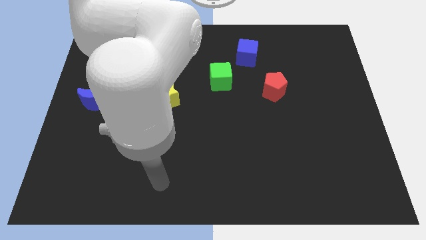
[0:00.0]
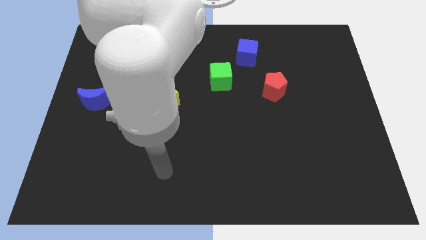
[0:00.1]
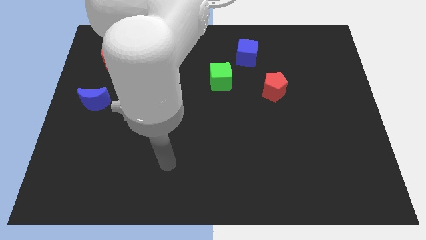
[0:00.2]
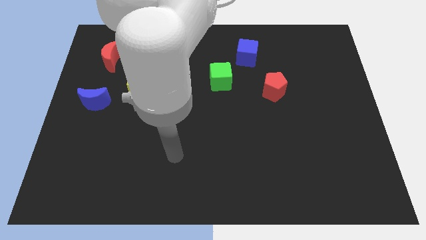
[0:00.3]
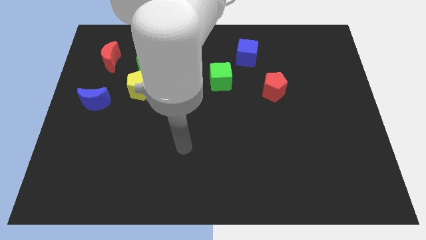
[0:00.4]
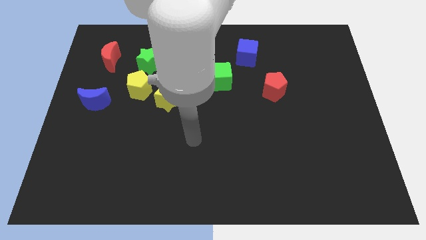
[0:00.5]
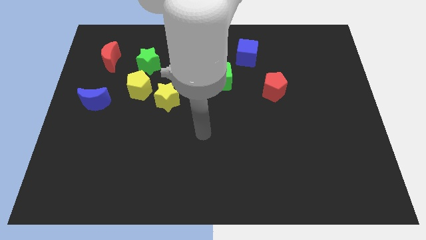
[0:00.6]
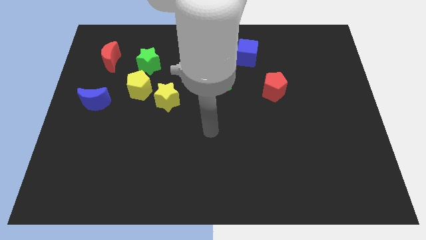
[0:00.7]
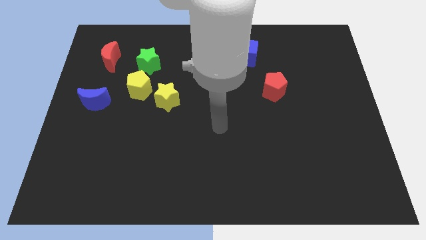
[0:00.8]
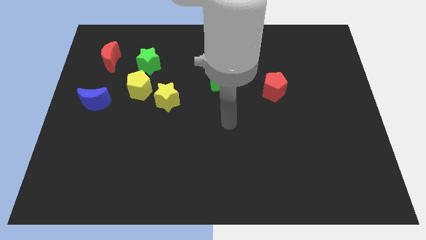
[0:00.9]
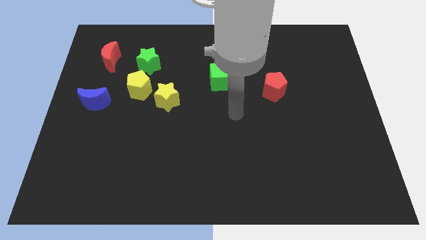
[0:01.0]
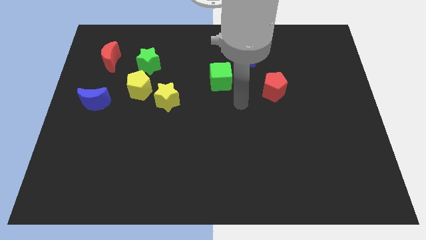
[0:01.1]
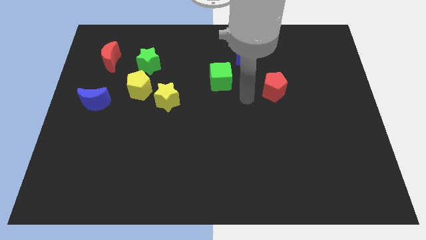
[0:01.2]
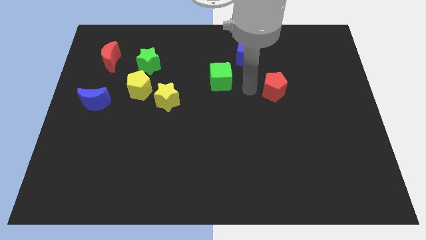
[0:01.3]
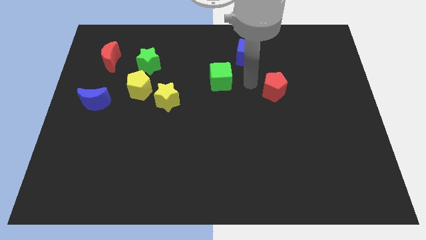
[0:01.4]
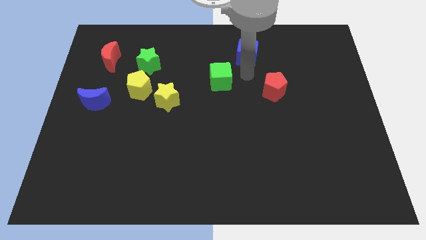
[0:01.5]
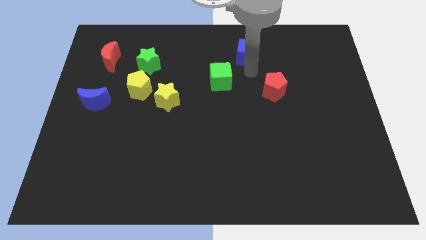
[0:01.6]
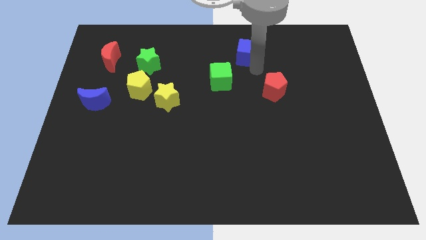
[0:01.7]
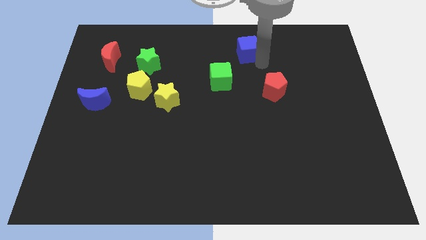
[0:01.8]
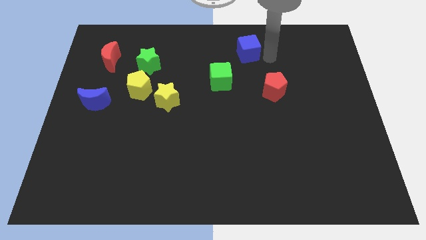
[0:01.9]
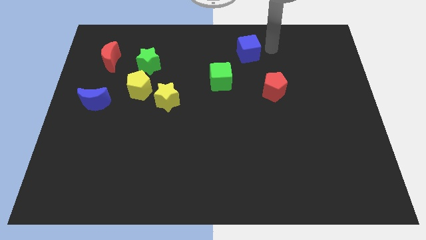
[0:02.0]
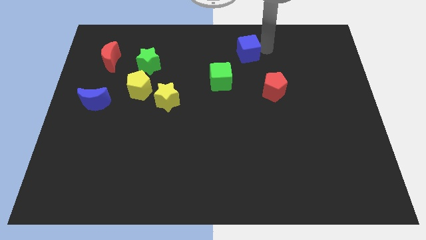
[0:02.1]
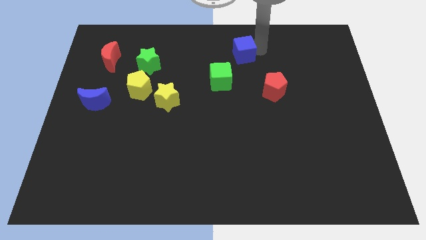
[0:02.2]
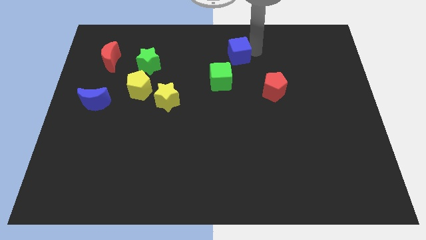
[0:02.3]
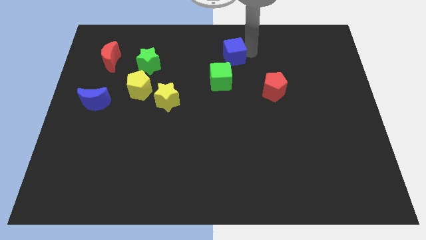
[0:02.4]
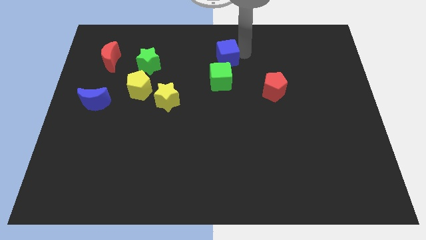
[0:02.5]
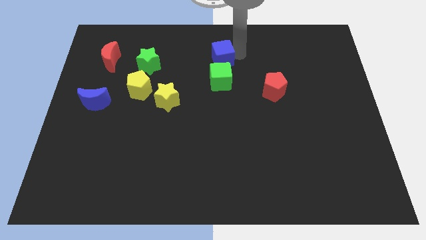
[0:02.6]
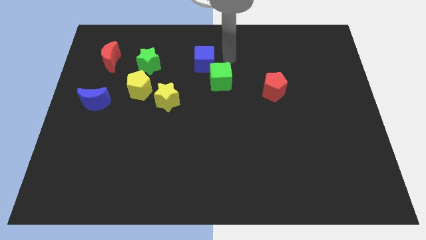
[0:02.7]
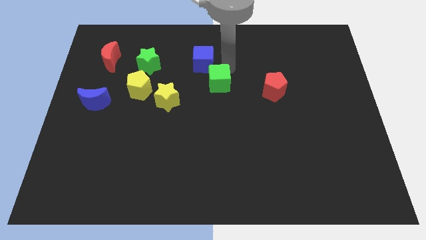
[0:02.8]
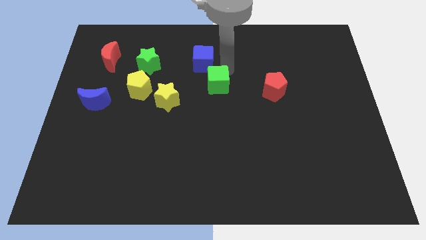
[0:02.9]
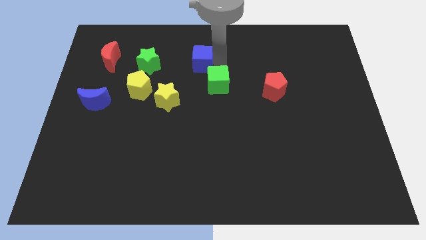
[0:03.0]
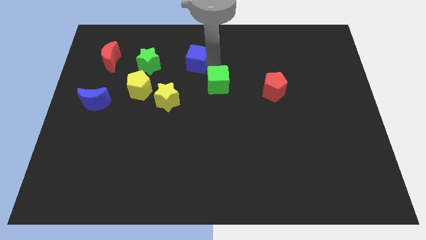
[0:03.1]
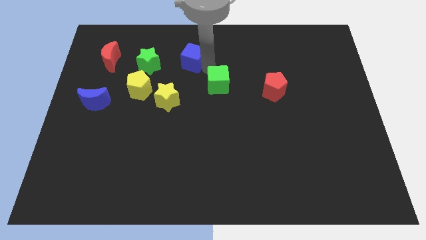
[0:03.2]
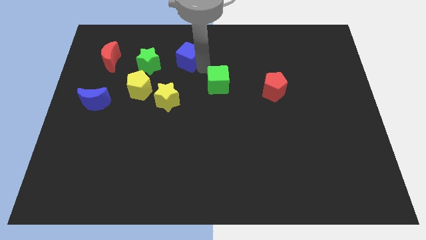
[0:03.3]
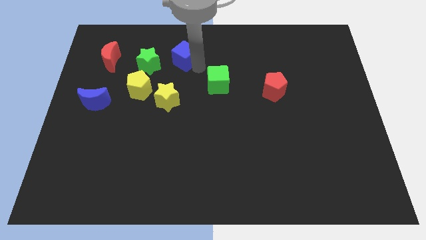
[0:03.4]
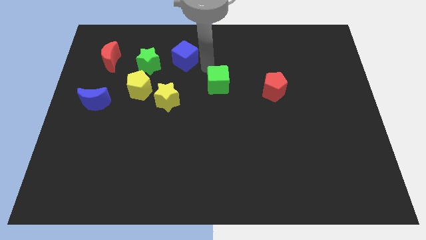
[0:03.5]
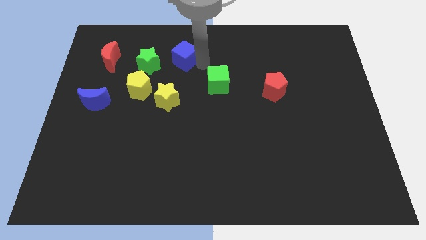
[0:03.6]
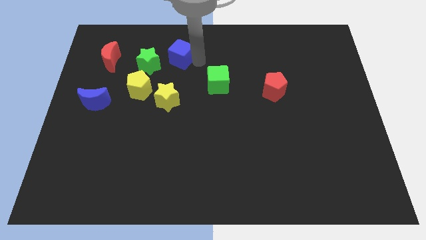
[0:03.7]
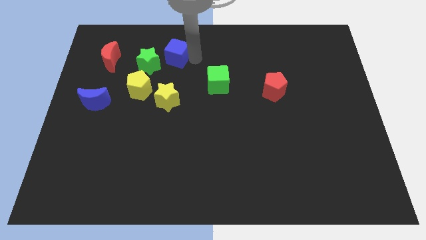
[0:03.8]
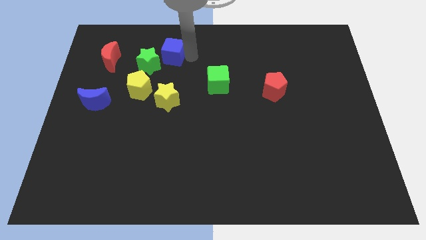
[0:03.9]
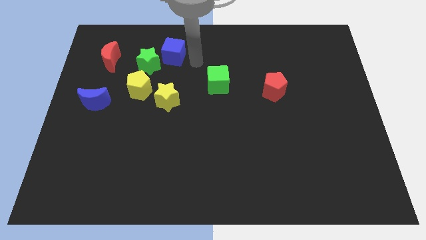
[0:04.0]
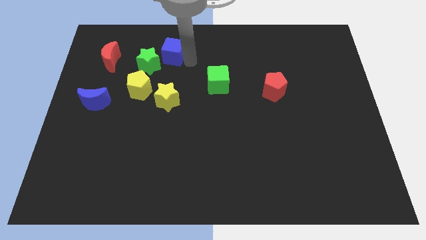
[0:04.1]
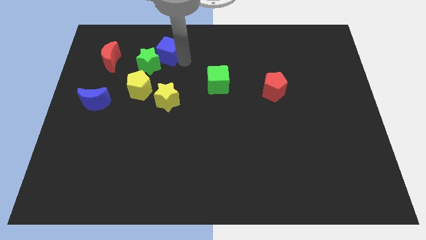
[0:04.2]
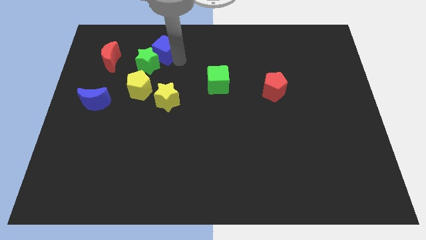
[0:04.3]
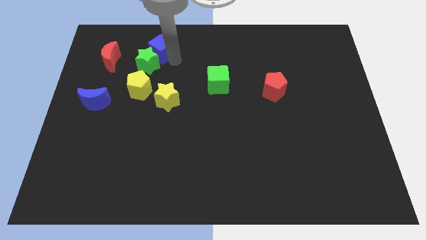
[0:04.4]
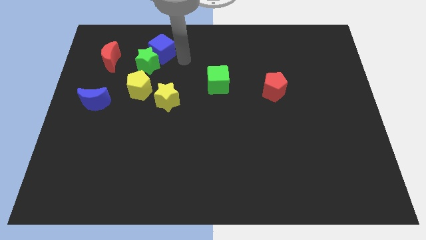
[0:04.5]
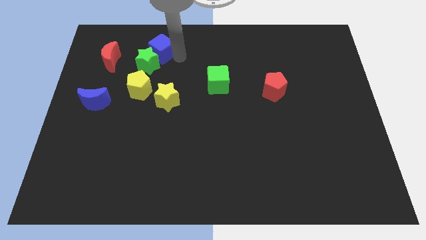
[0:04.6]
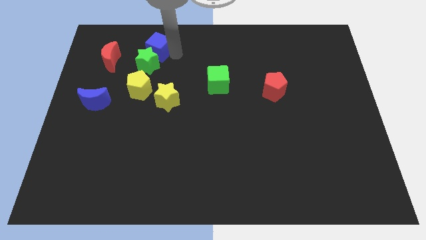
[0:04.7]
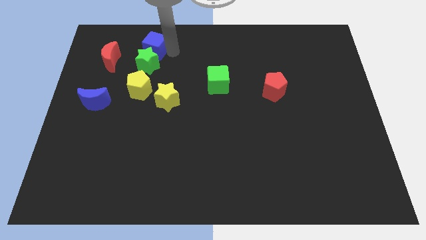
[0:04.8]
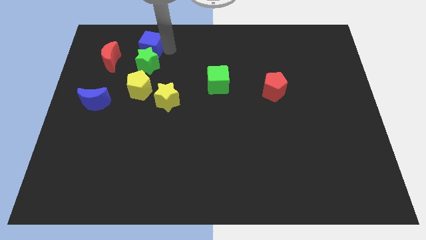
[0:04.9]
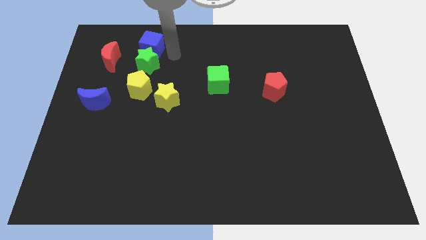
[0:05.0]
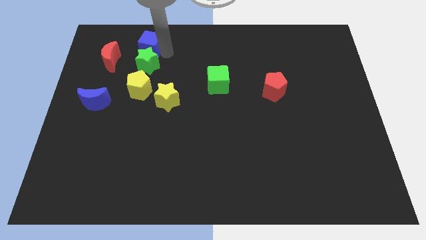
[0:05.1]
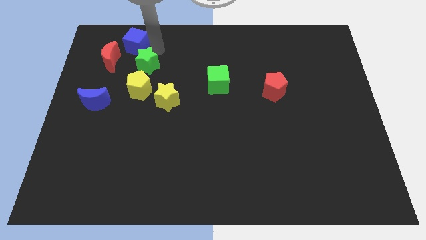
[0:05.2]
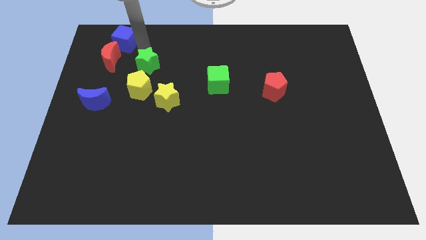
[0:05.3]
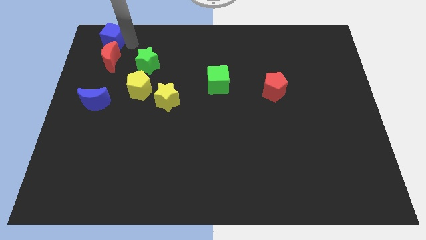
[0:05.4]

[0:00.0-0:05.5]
put the blue cube to the top left
